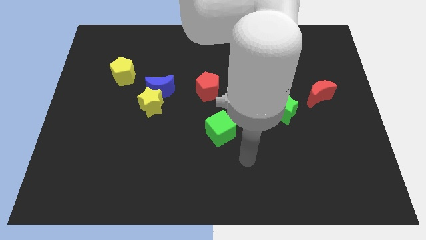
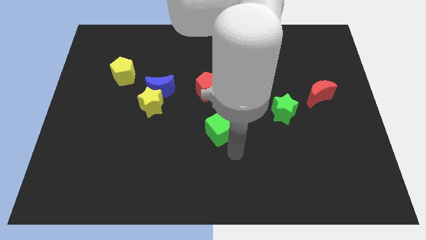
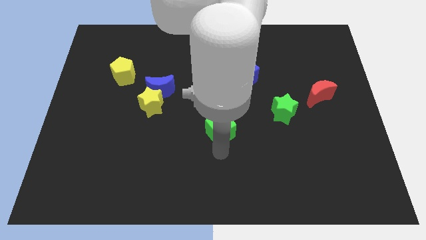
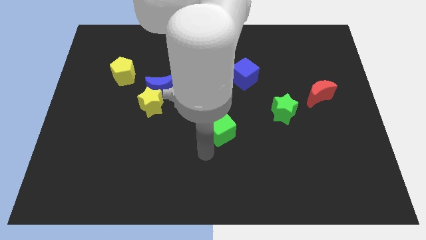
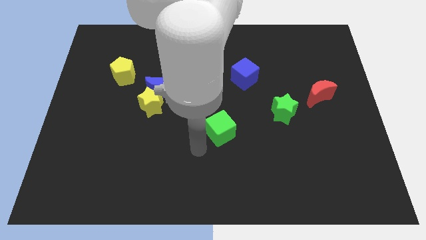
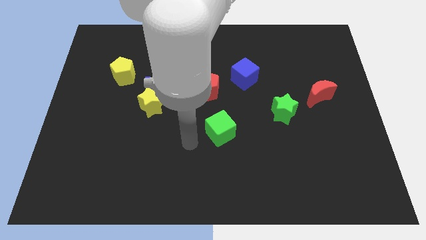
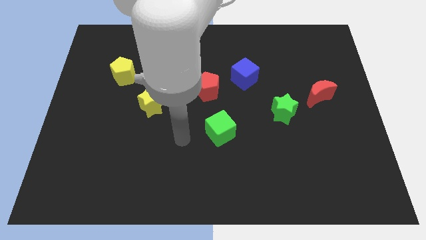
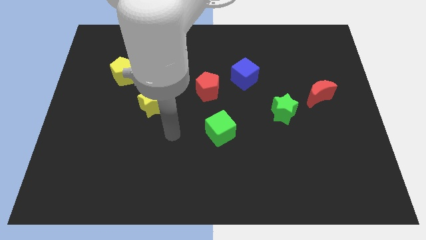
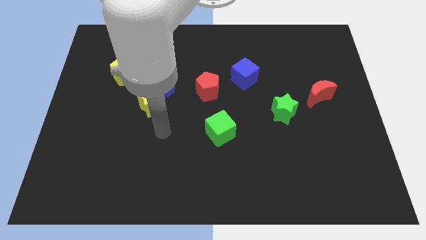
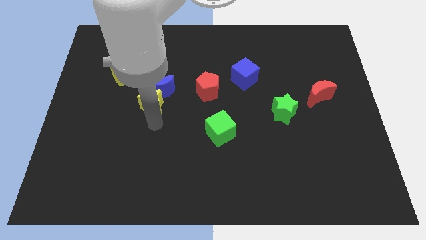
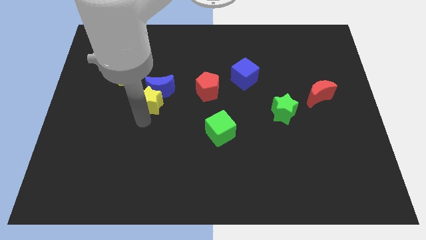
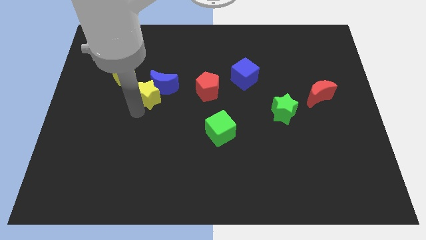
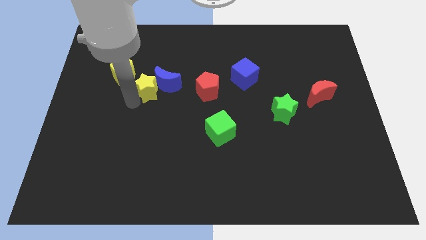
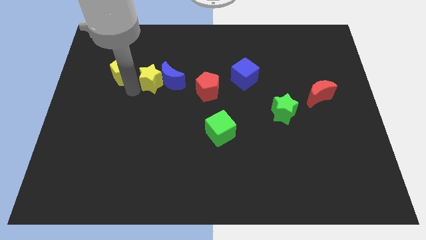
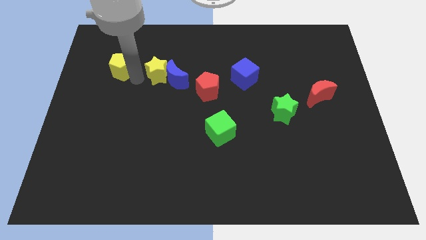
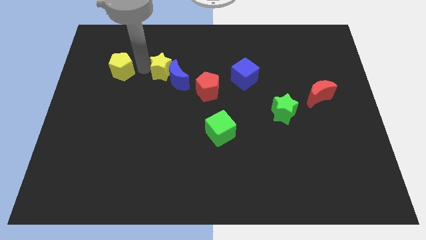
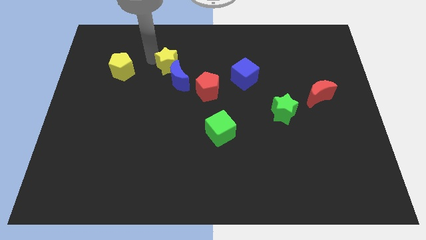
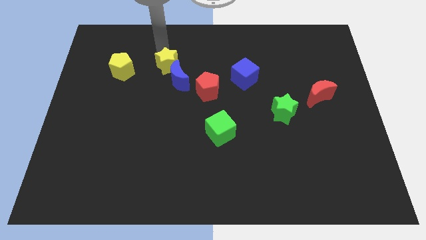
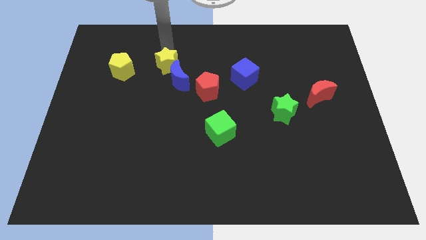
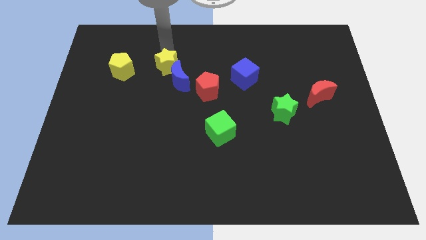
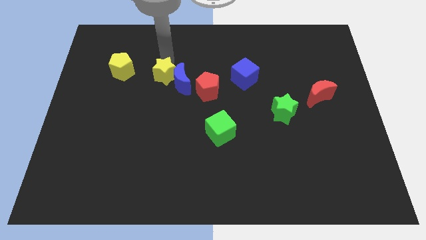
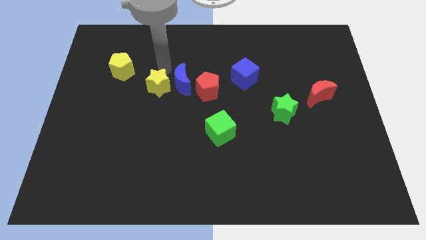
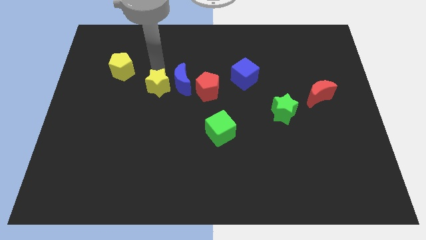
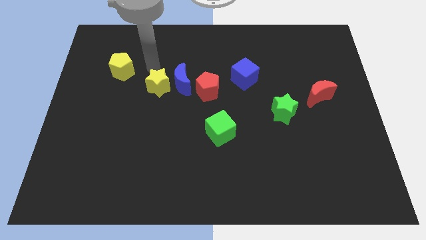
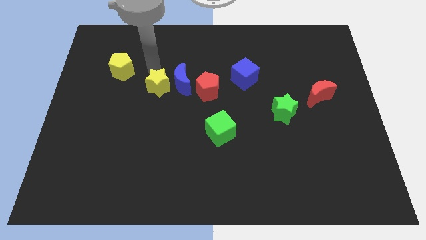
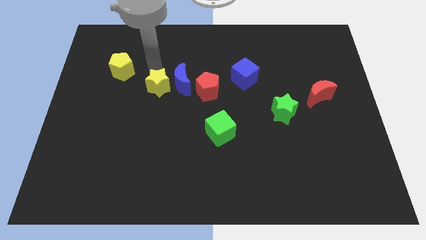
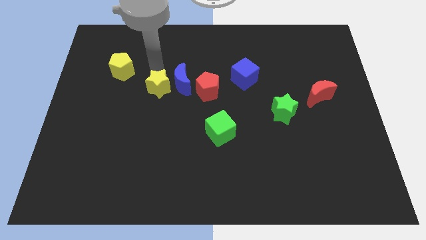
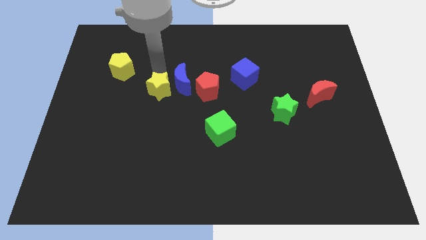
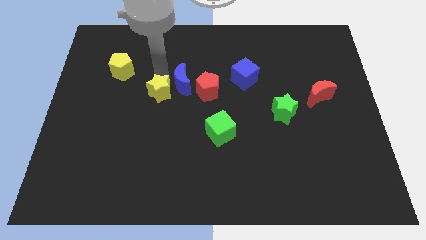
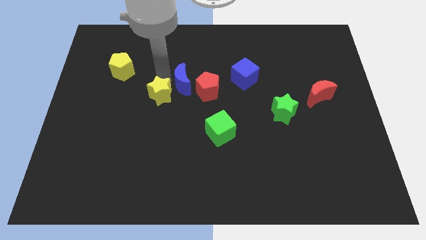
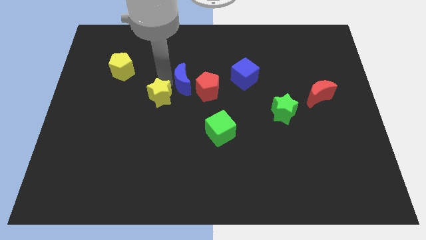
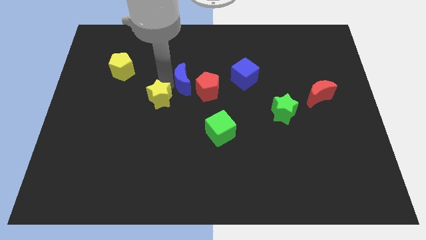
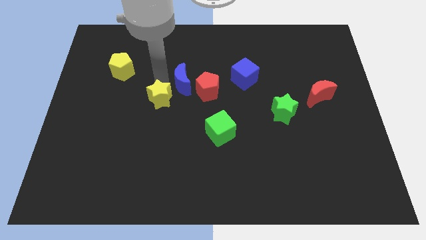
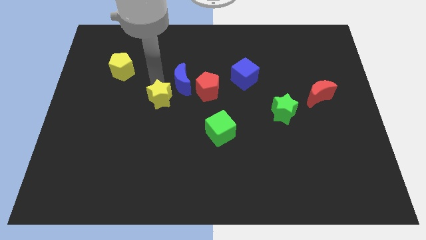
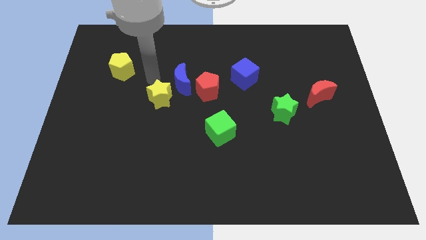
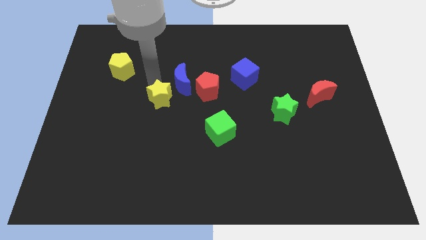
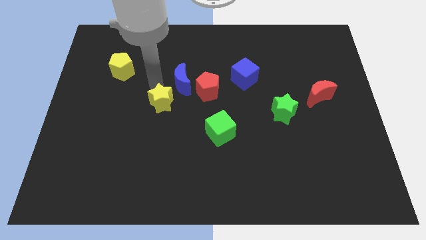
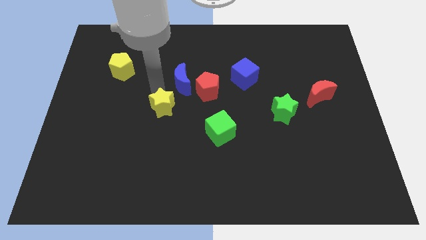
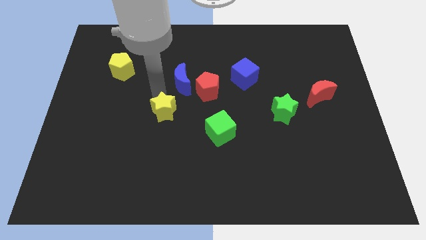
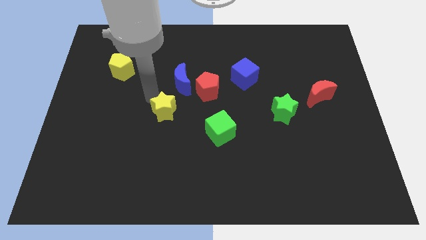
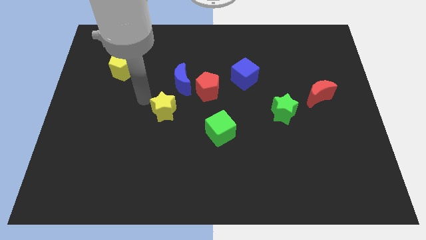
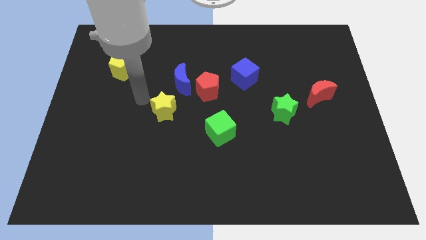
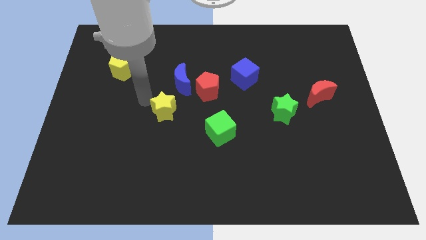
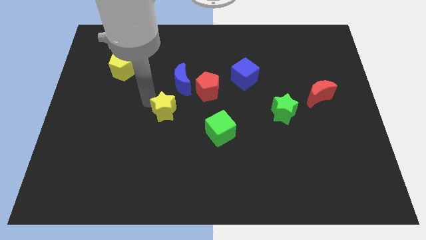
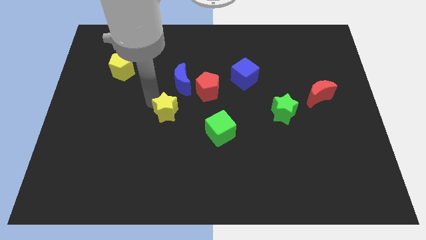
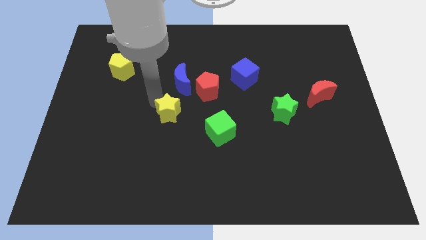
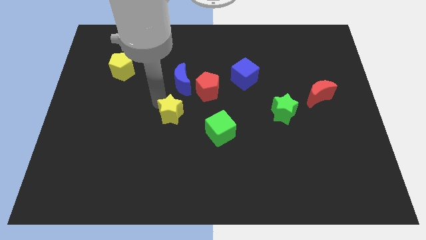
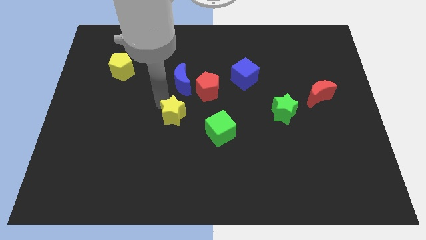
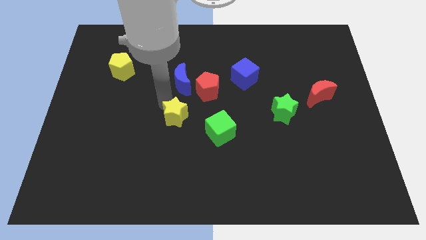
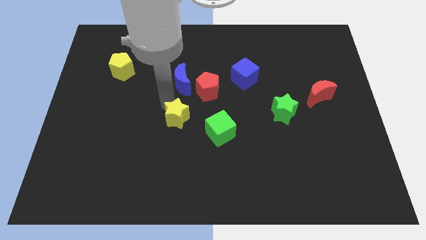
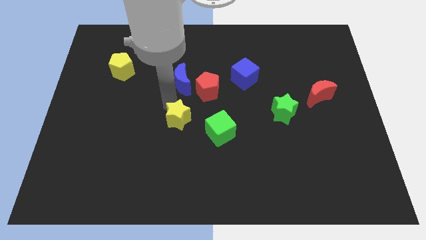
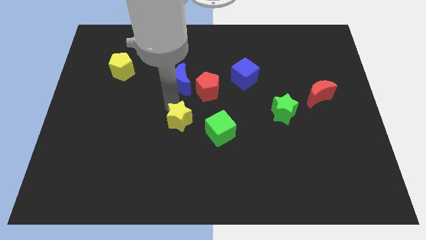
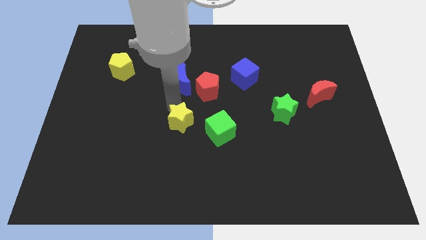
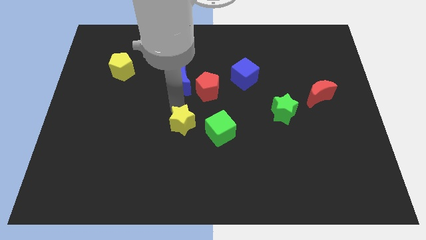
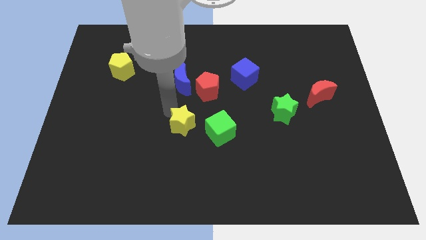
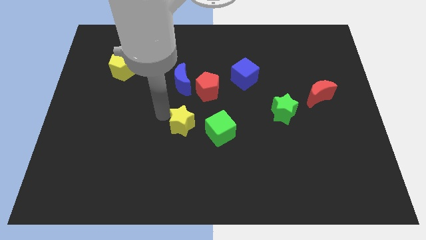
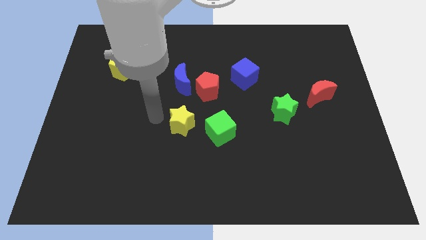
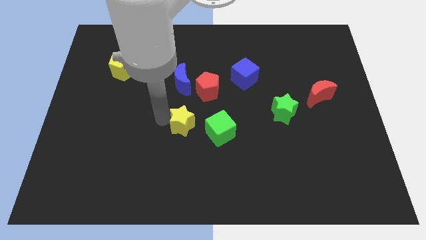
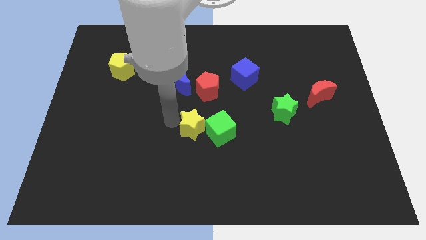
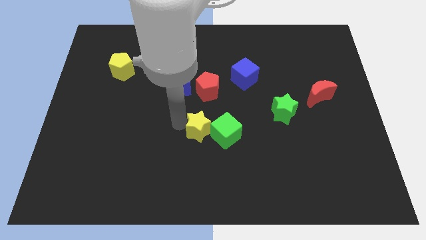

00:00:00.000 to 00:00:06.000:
push the yellow star towards the green cube

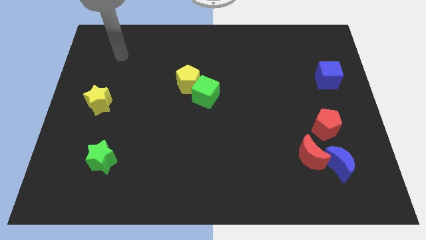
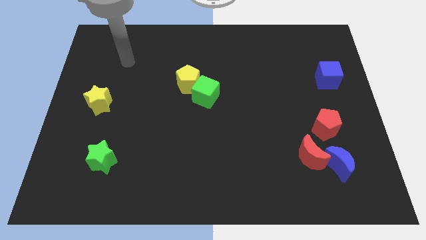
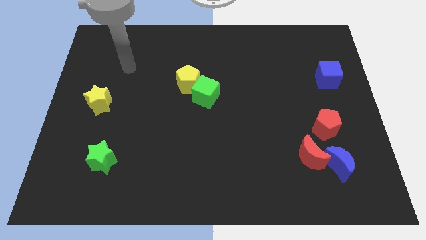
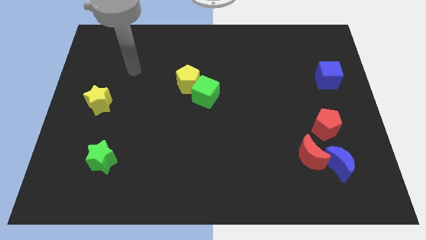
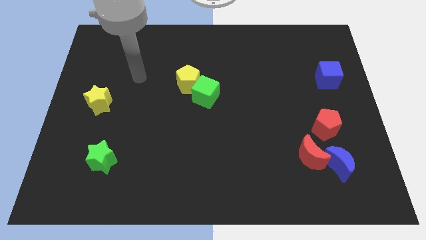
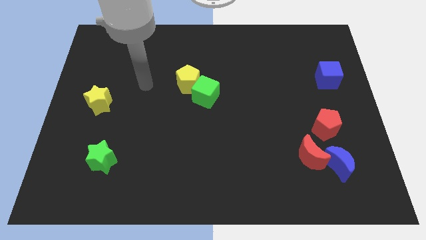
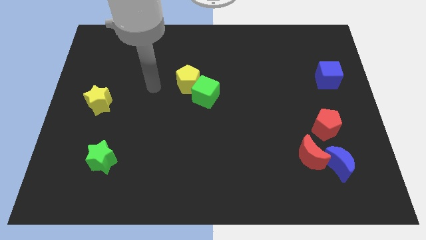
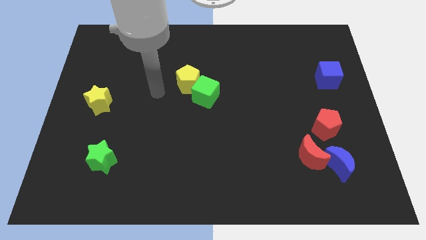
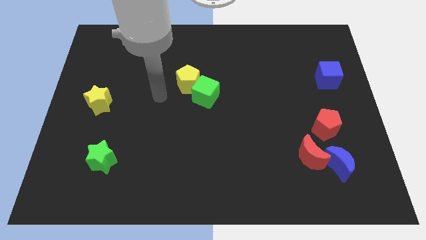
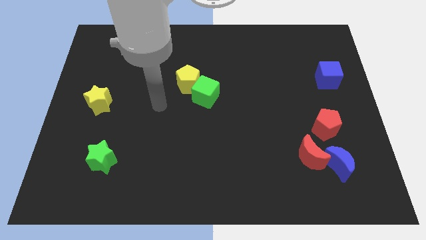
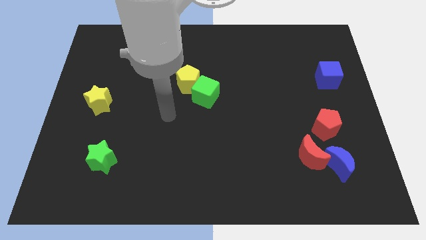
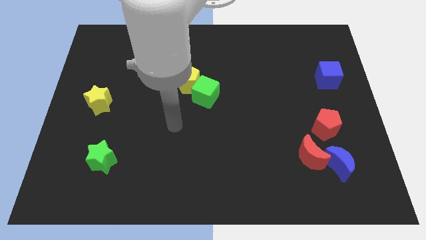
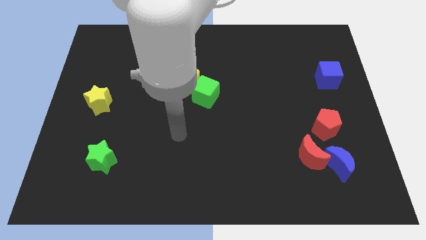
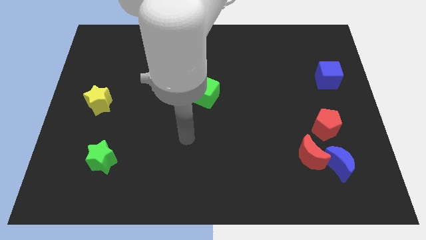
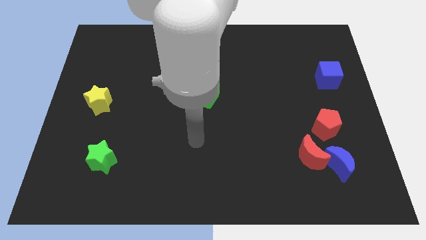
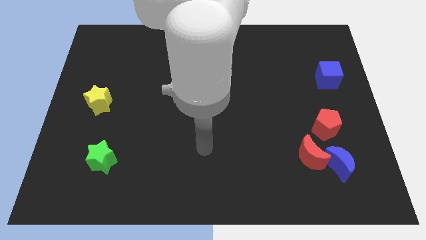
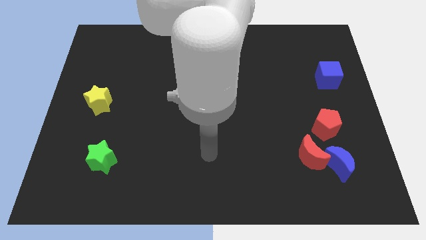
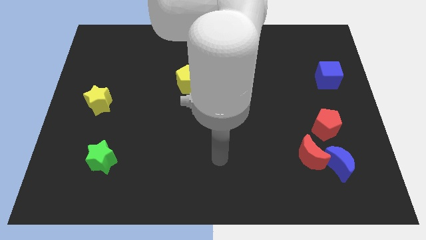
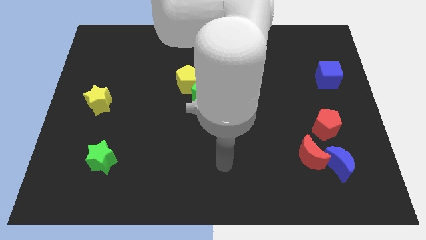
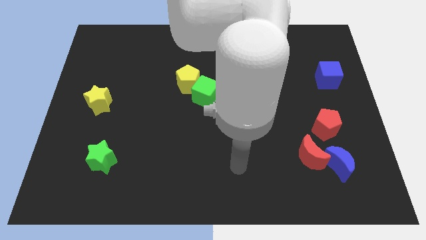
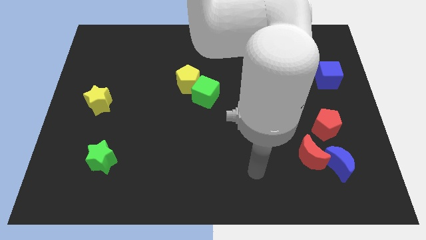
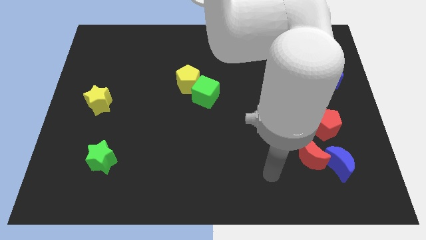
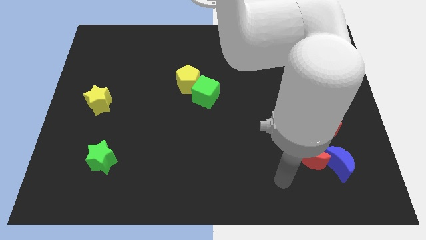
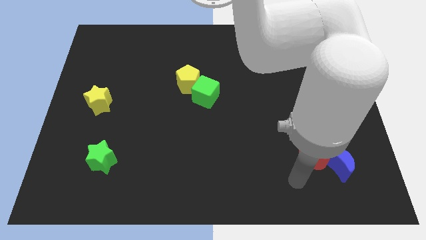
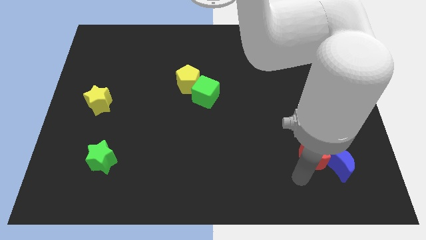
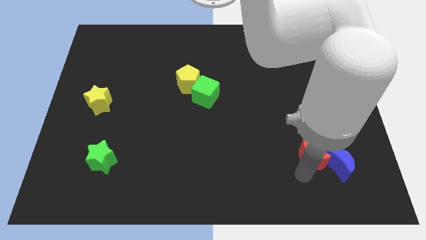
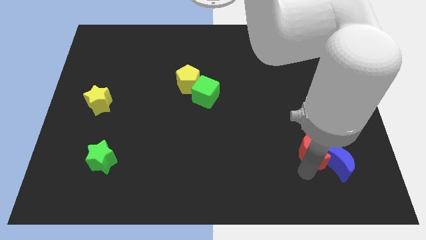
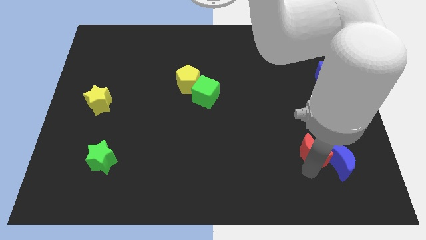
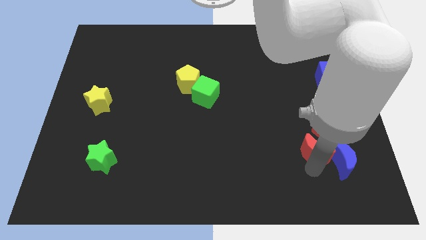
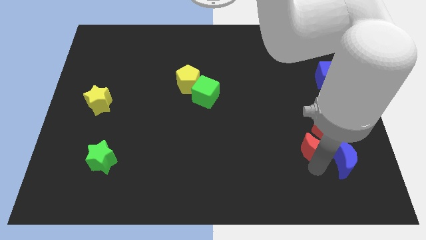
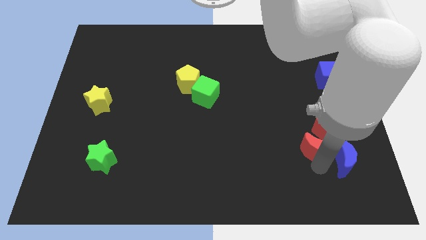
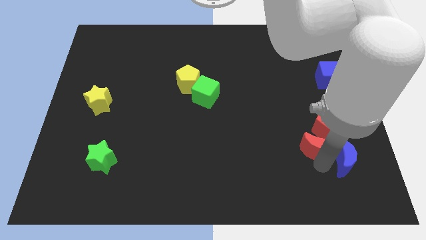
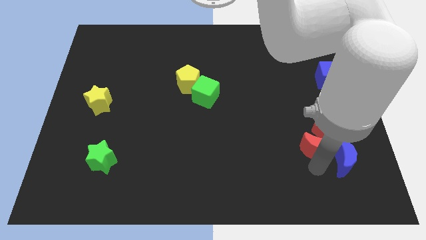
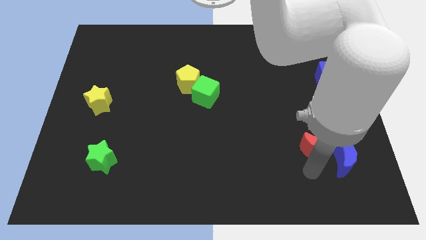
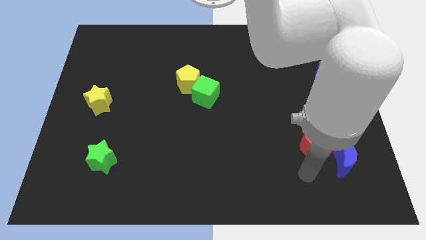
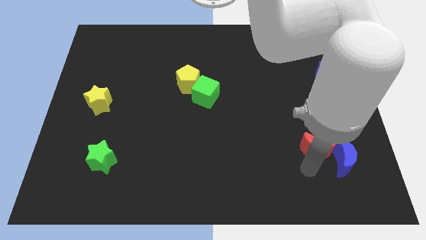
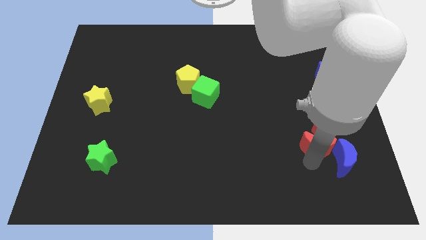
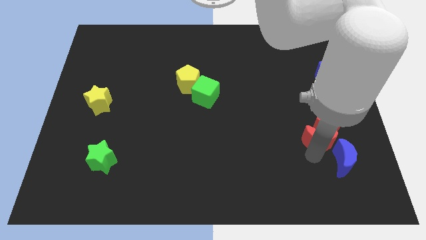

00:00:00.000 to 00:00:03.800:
put the red moon towards the red pentagon
